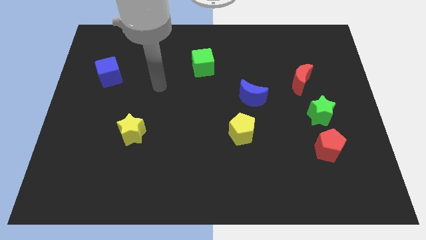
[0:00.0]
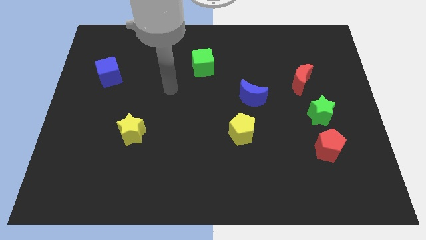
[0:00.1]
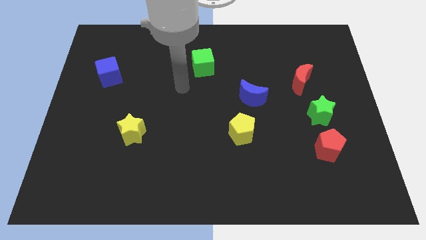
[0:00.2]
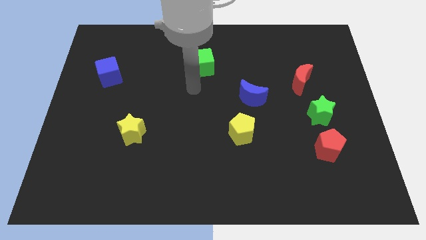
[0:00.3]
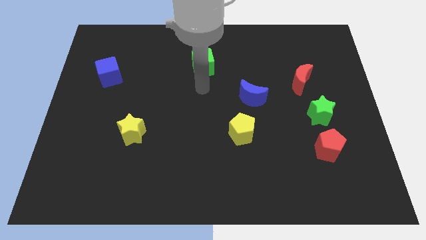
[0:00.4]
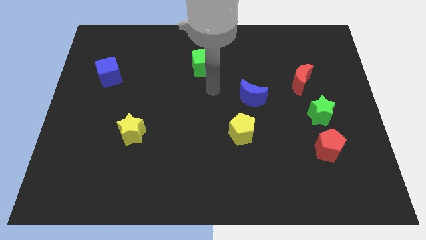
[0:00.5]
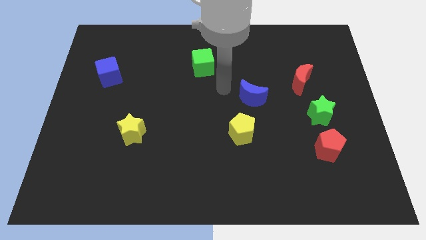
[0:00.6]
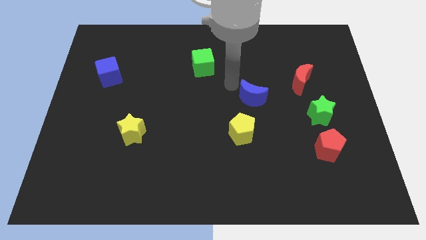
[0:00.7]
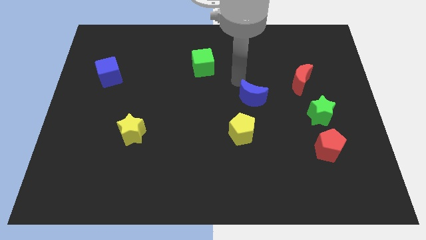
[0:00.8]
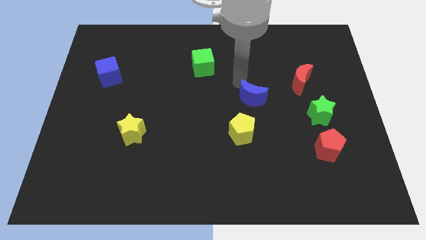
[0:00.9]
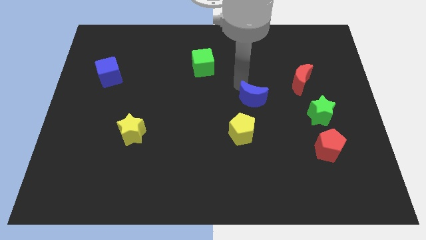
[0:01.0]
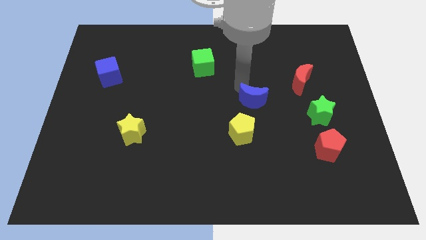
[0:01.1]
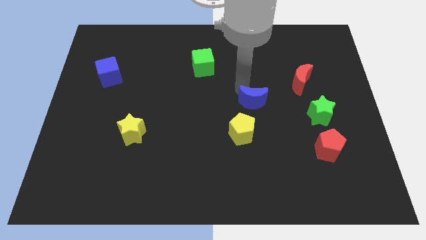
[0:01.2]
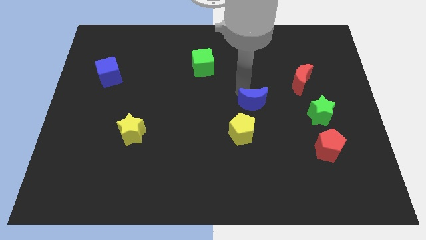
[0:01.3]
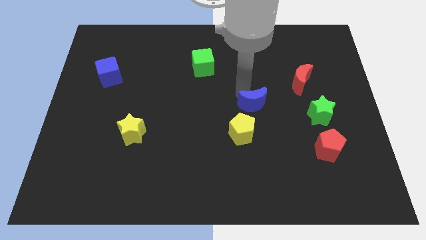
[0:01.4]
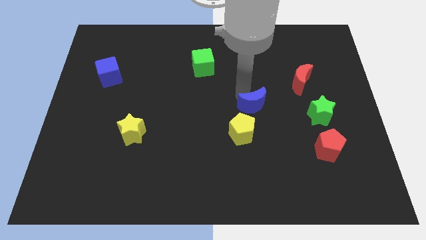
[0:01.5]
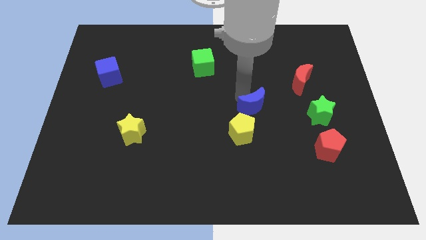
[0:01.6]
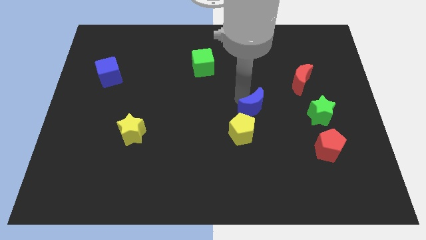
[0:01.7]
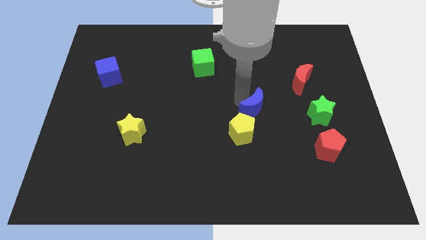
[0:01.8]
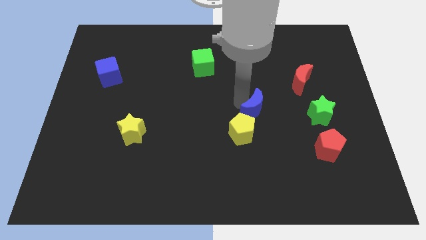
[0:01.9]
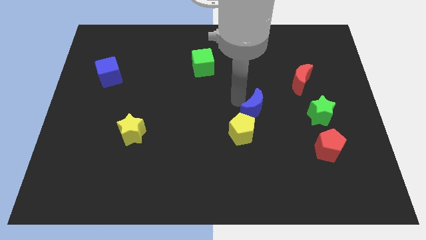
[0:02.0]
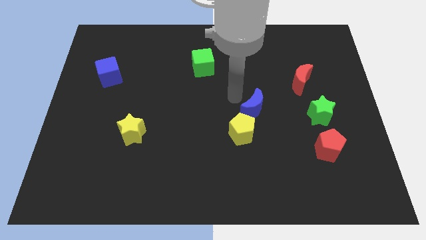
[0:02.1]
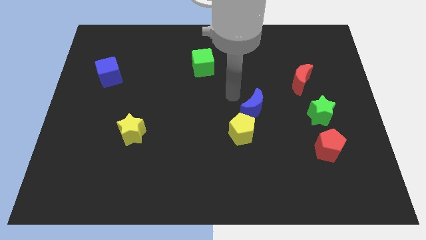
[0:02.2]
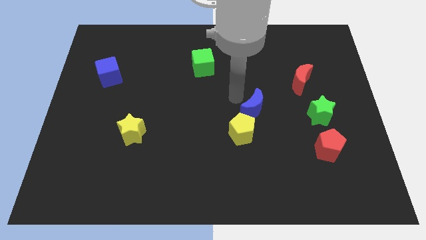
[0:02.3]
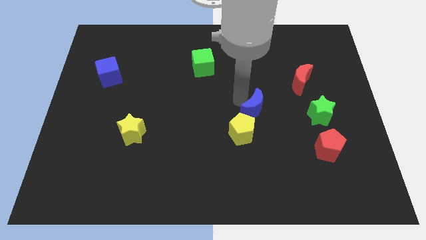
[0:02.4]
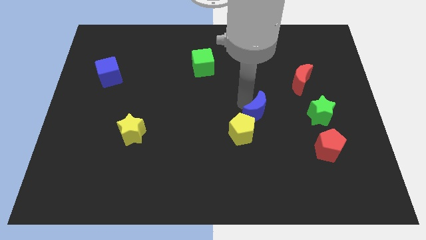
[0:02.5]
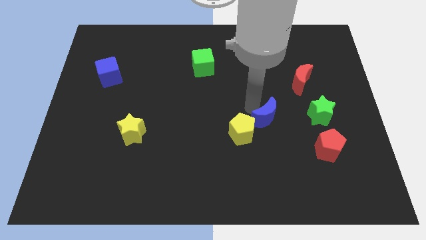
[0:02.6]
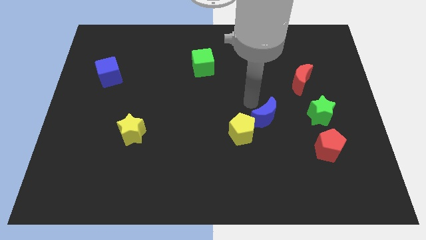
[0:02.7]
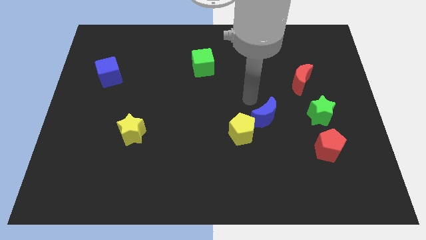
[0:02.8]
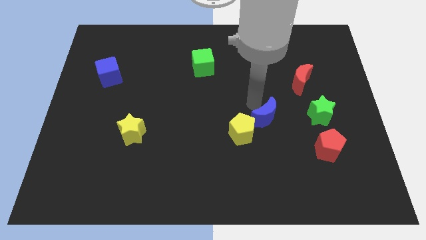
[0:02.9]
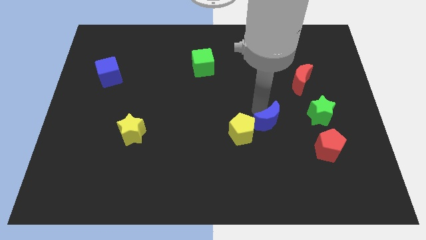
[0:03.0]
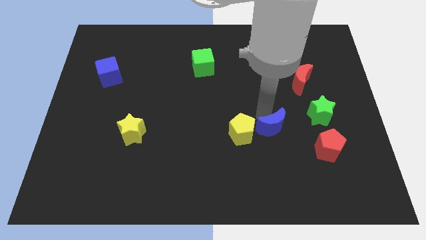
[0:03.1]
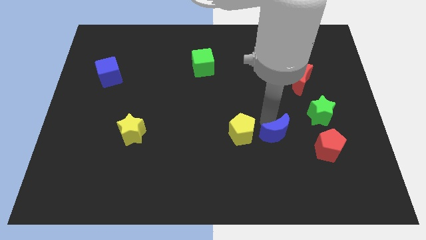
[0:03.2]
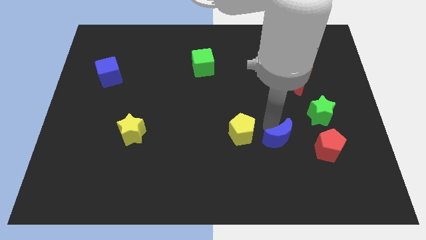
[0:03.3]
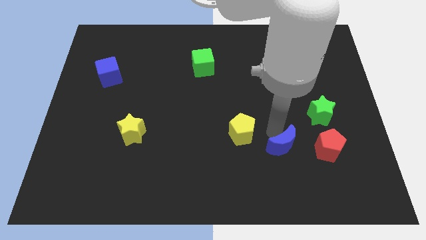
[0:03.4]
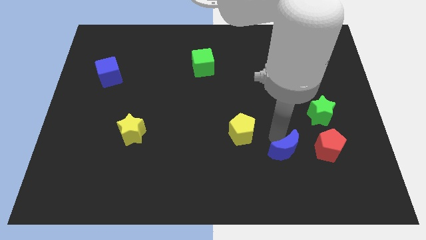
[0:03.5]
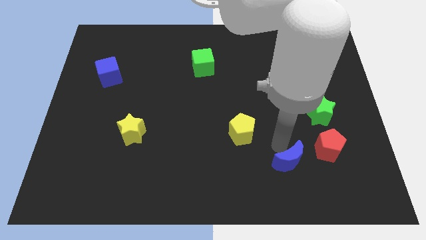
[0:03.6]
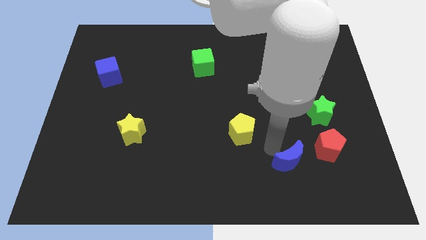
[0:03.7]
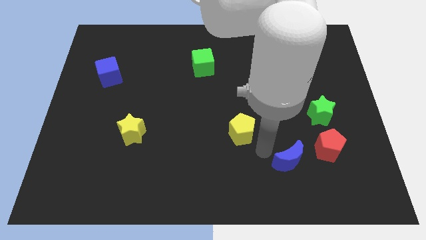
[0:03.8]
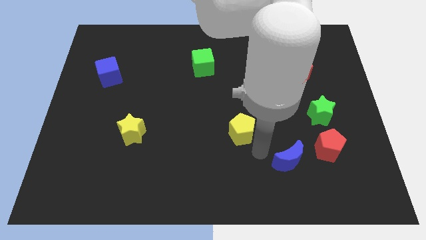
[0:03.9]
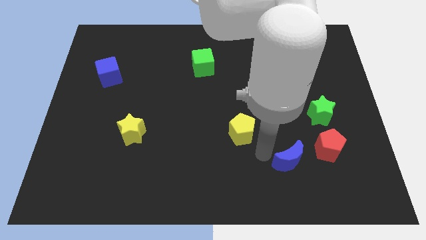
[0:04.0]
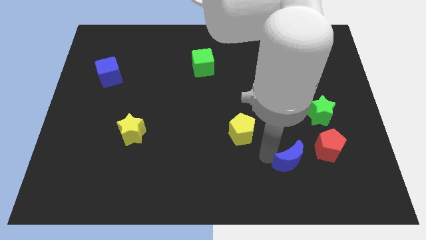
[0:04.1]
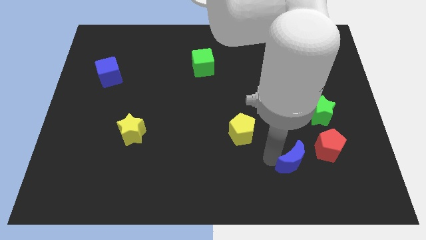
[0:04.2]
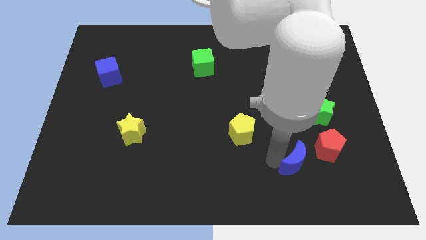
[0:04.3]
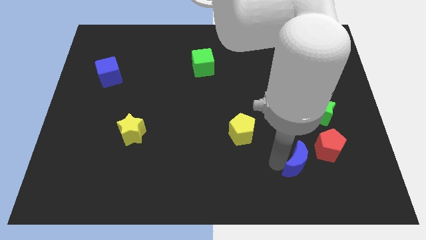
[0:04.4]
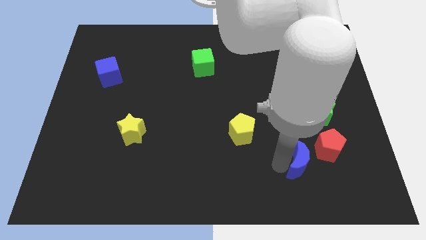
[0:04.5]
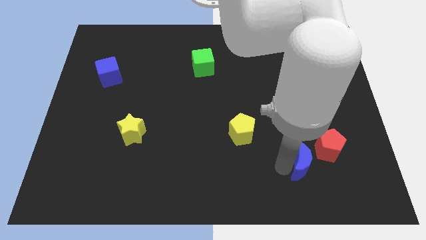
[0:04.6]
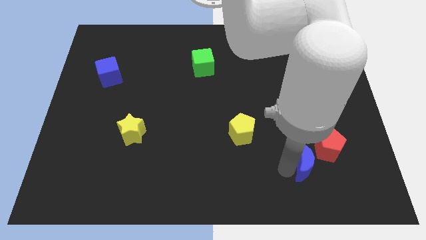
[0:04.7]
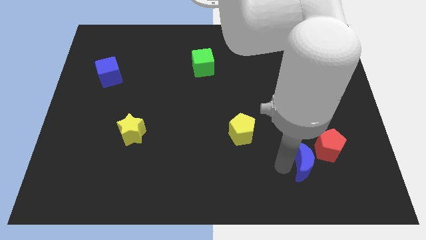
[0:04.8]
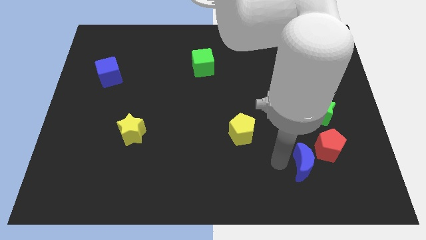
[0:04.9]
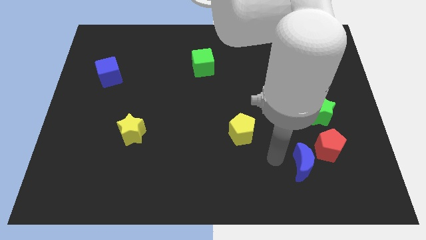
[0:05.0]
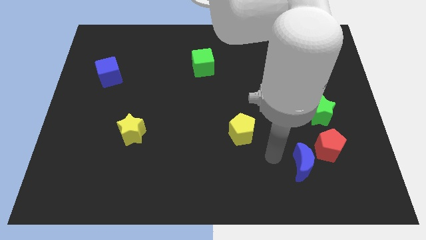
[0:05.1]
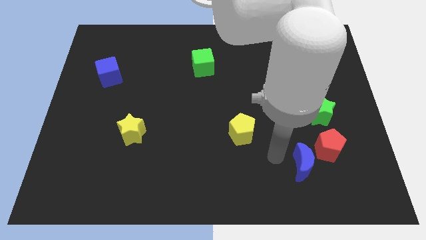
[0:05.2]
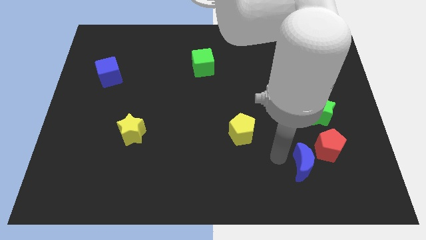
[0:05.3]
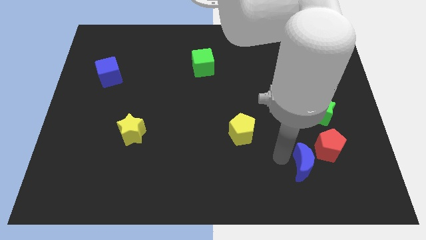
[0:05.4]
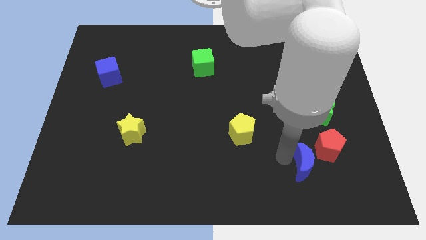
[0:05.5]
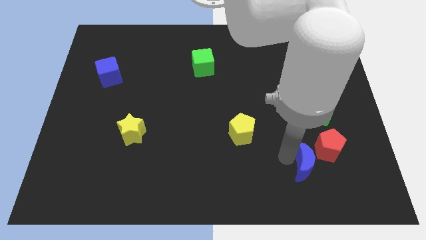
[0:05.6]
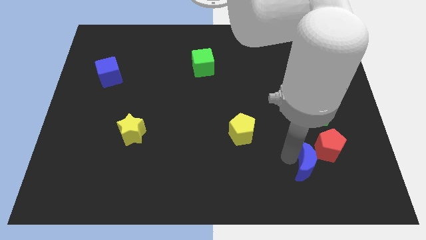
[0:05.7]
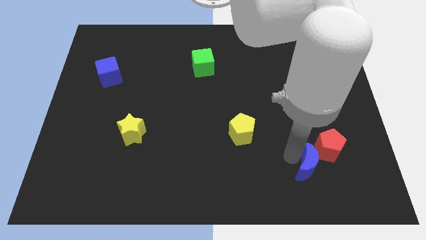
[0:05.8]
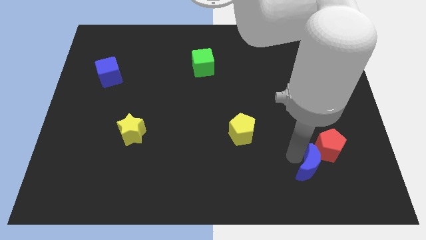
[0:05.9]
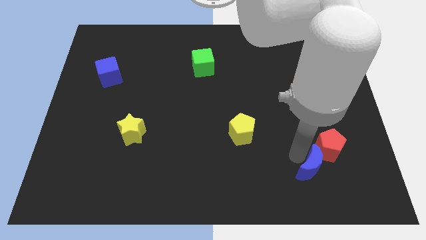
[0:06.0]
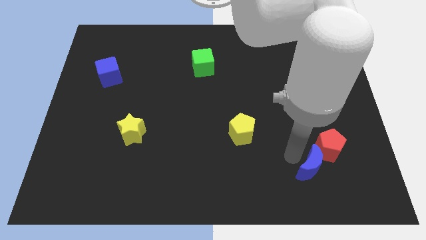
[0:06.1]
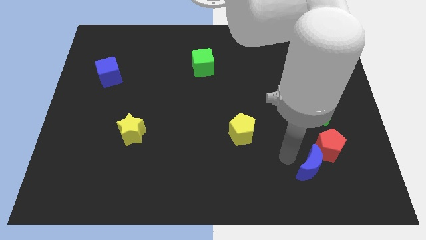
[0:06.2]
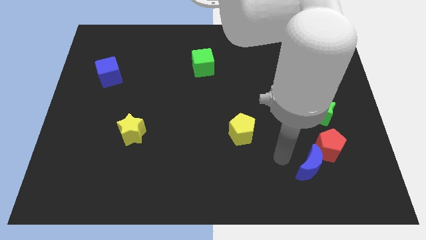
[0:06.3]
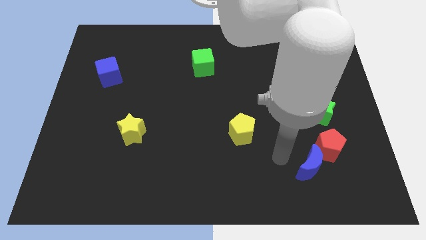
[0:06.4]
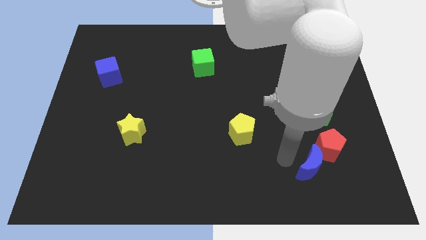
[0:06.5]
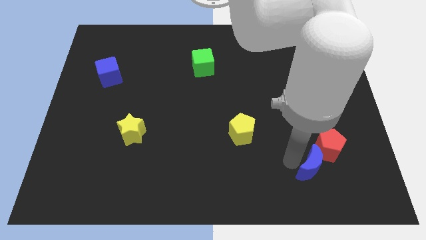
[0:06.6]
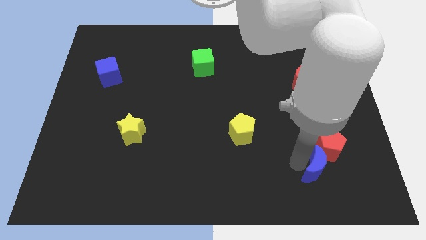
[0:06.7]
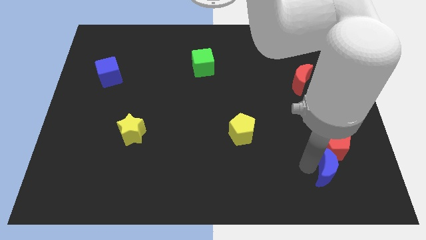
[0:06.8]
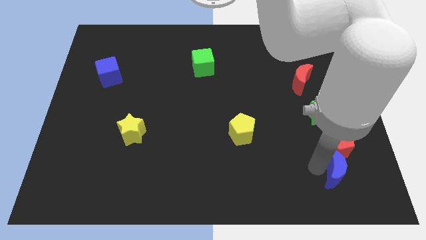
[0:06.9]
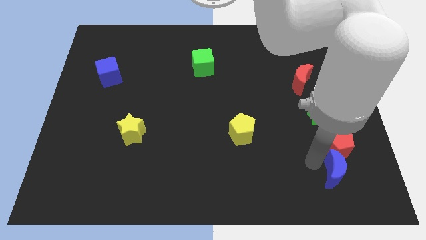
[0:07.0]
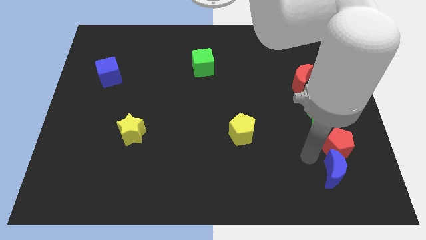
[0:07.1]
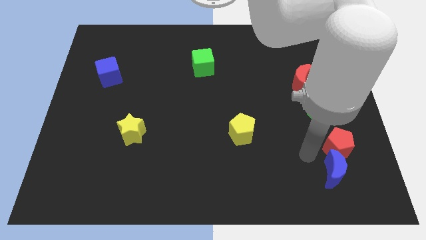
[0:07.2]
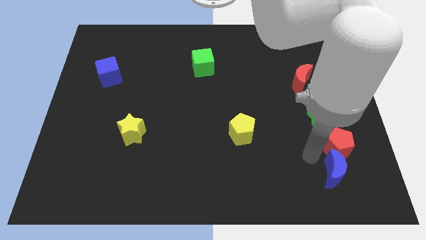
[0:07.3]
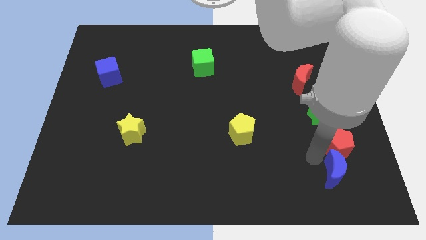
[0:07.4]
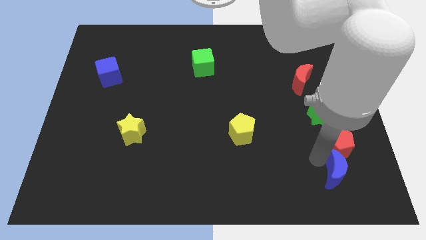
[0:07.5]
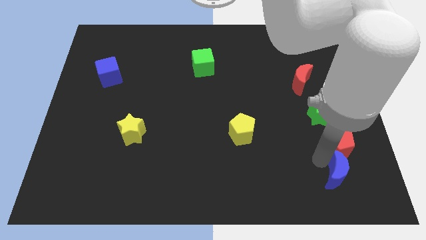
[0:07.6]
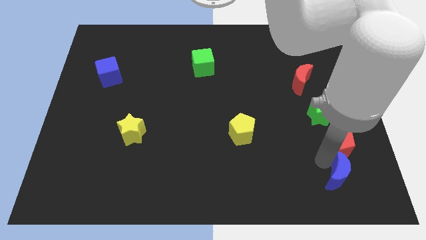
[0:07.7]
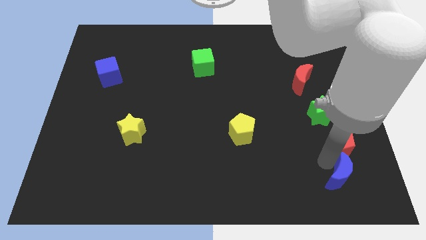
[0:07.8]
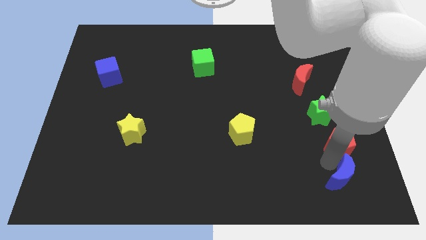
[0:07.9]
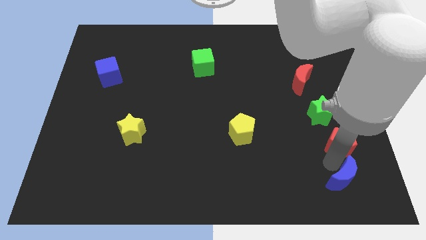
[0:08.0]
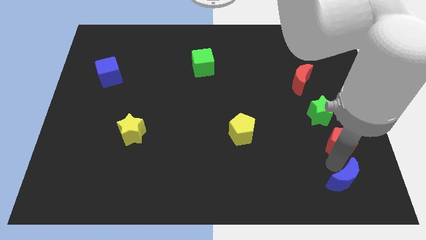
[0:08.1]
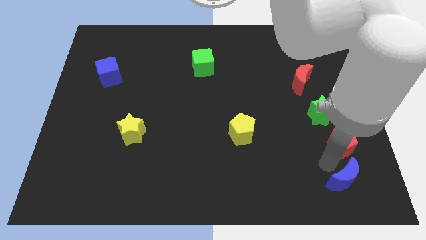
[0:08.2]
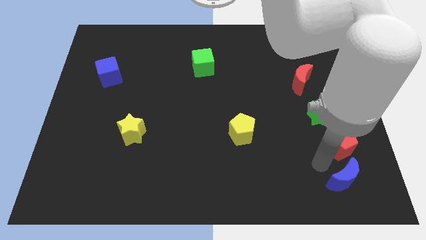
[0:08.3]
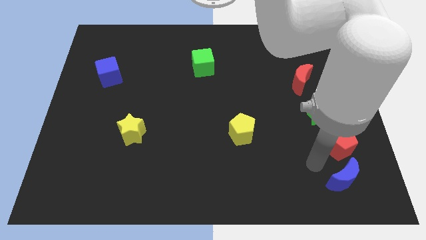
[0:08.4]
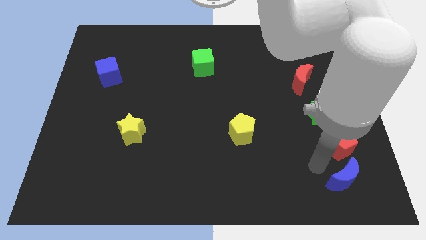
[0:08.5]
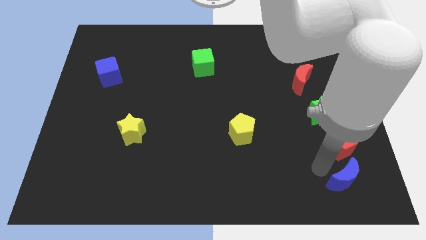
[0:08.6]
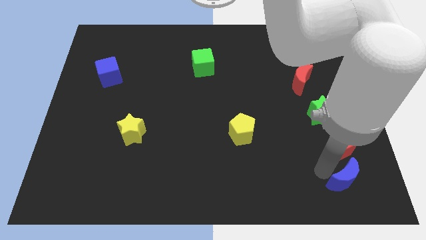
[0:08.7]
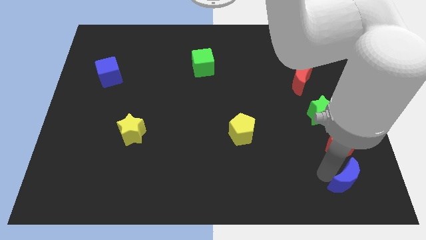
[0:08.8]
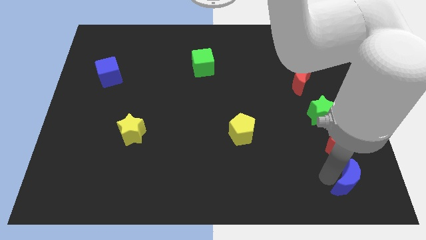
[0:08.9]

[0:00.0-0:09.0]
push the blue moon to the bottom right of the board
